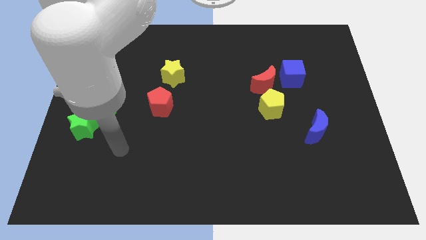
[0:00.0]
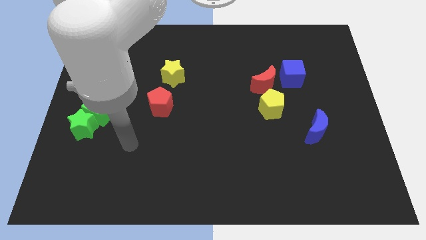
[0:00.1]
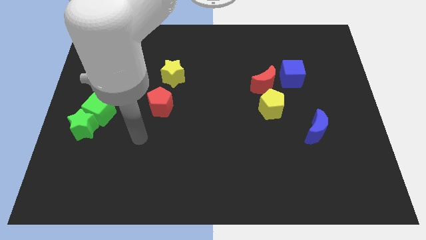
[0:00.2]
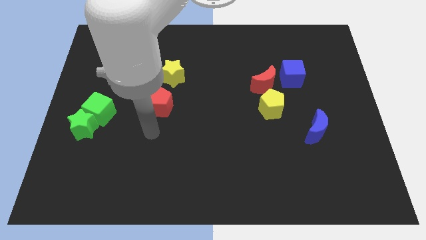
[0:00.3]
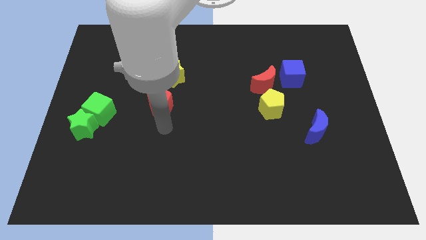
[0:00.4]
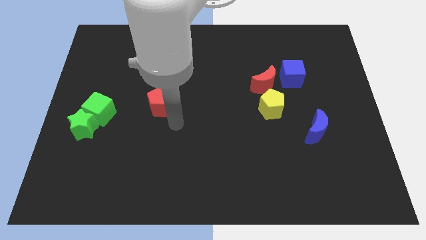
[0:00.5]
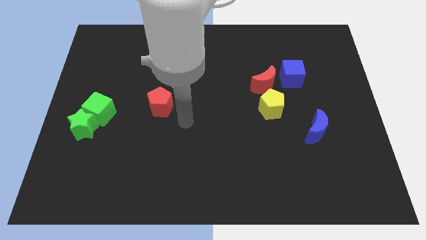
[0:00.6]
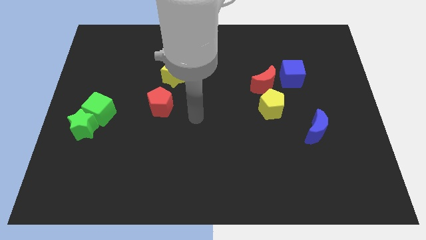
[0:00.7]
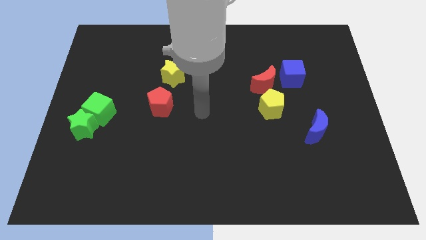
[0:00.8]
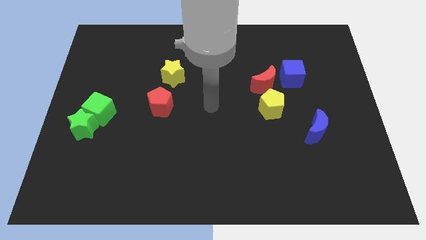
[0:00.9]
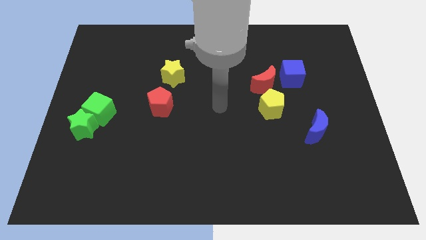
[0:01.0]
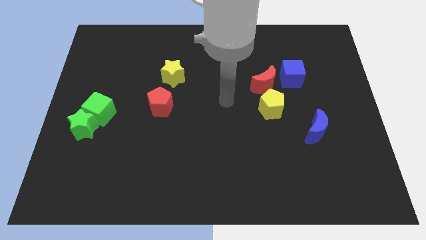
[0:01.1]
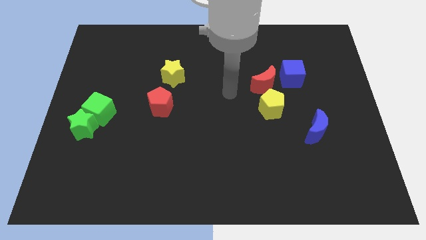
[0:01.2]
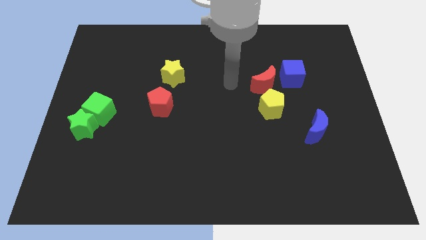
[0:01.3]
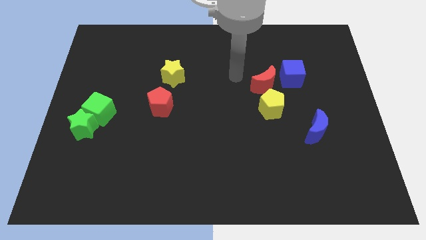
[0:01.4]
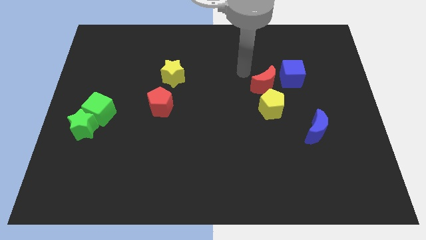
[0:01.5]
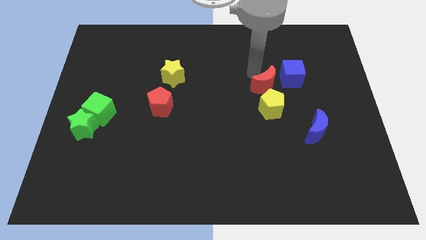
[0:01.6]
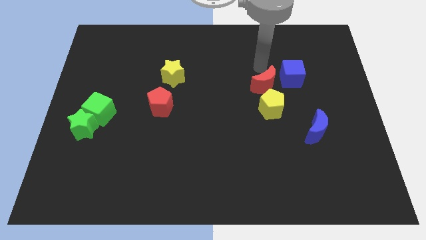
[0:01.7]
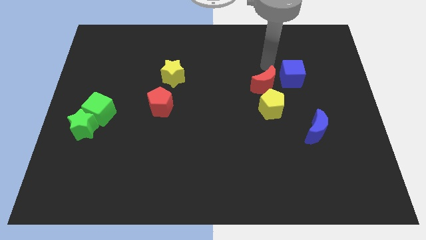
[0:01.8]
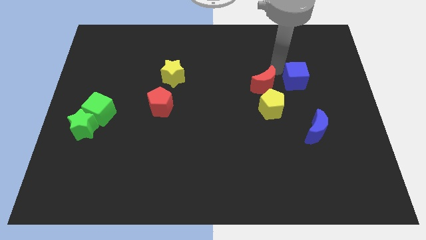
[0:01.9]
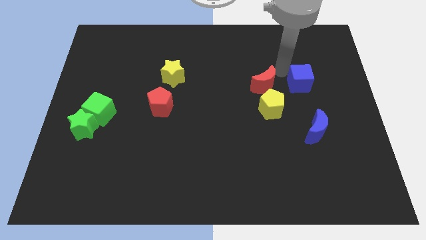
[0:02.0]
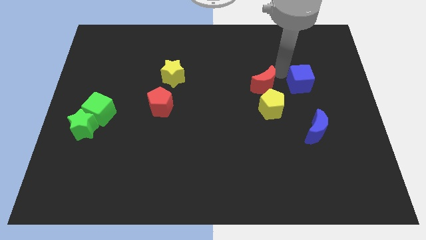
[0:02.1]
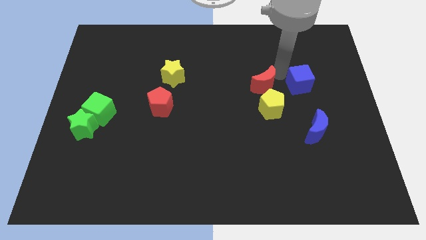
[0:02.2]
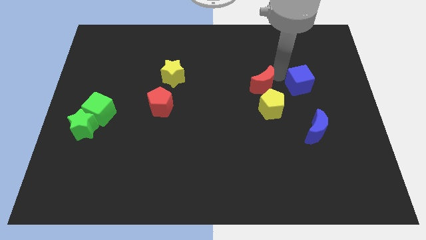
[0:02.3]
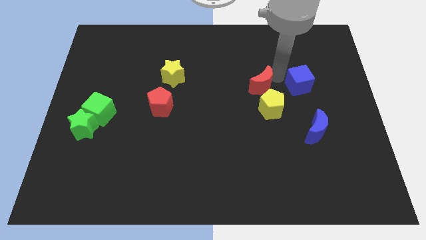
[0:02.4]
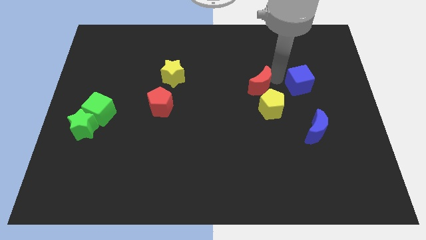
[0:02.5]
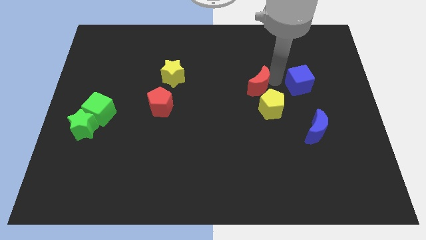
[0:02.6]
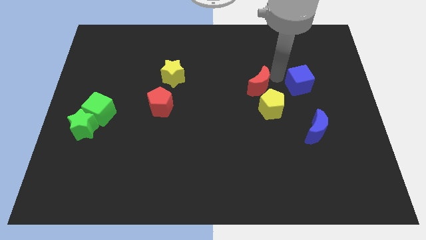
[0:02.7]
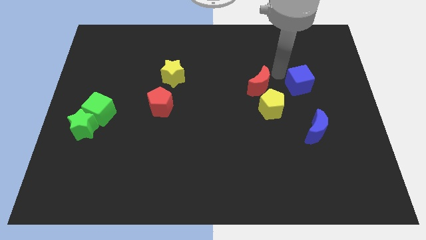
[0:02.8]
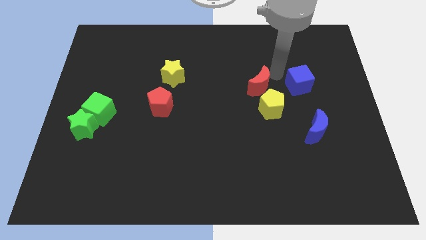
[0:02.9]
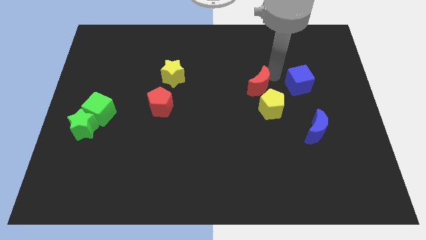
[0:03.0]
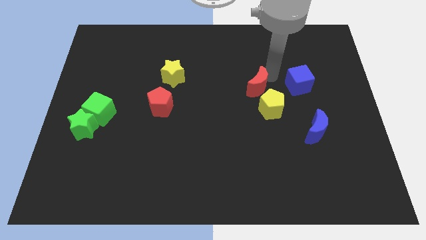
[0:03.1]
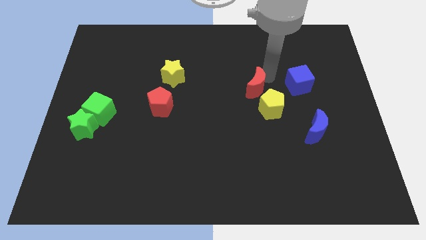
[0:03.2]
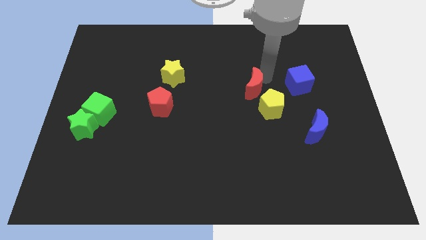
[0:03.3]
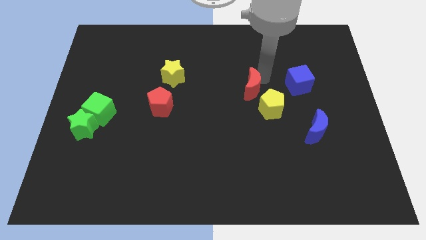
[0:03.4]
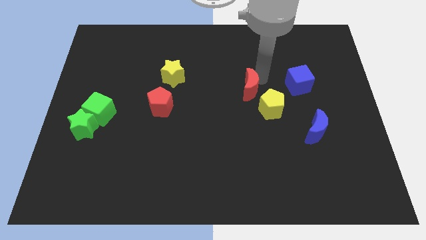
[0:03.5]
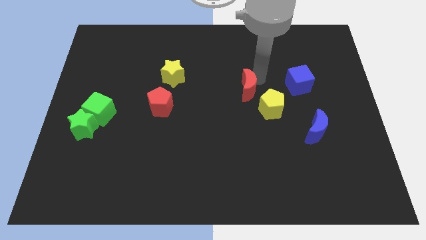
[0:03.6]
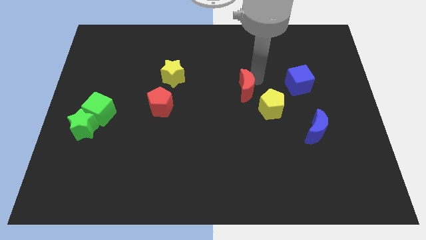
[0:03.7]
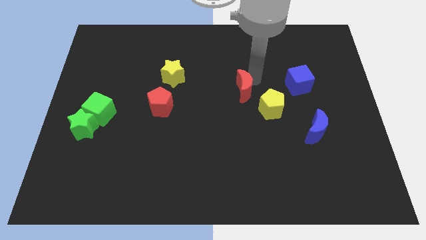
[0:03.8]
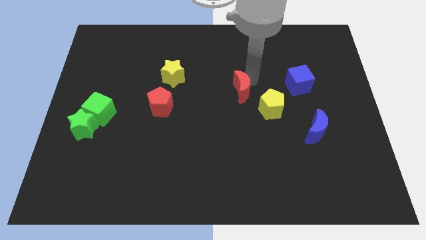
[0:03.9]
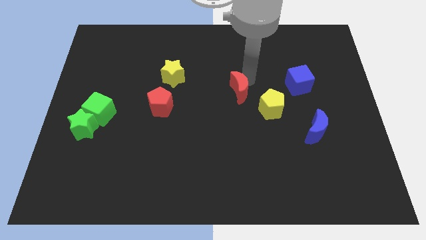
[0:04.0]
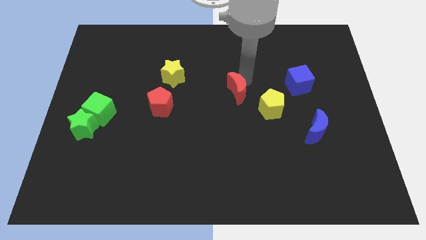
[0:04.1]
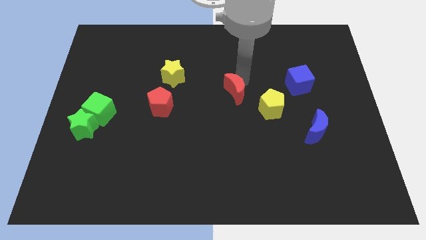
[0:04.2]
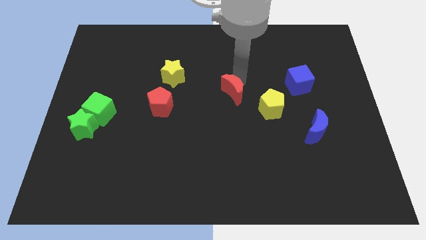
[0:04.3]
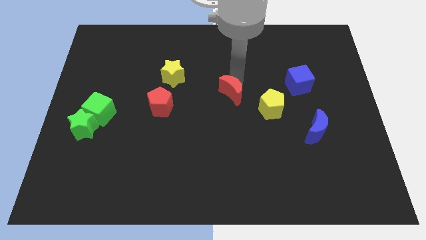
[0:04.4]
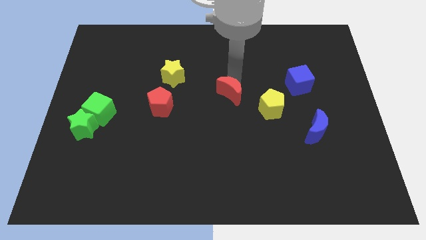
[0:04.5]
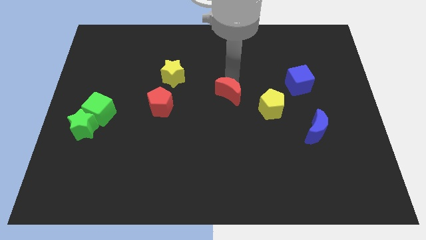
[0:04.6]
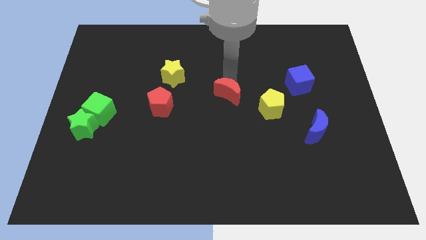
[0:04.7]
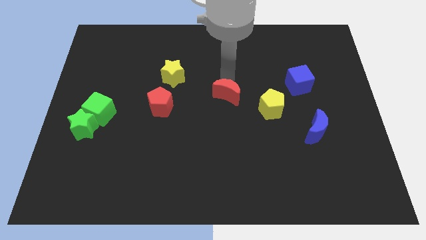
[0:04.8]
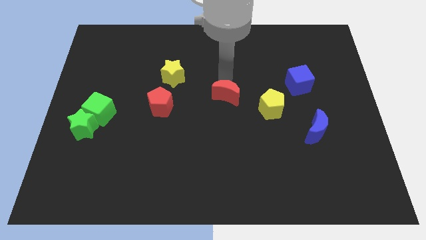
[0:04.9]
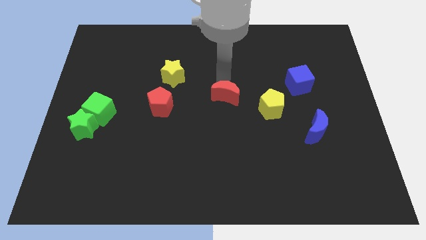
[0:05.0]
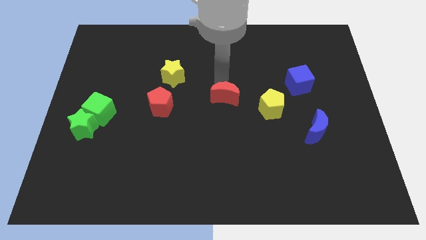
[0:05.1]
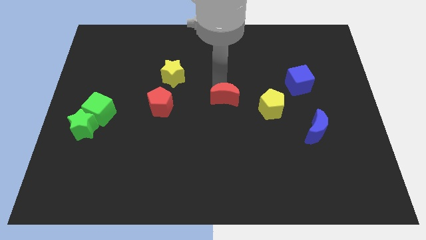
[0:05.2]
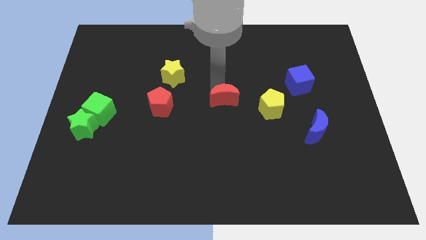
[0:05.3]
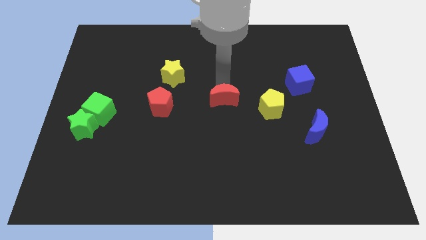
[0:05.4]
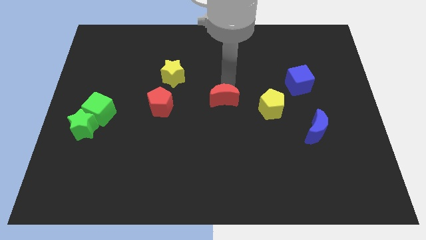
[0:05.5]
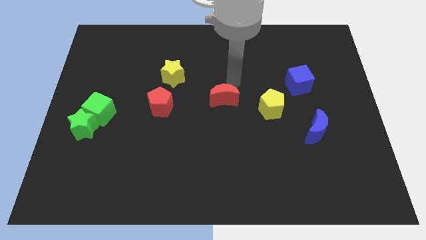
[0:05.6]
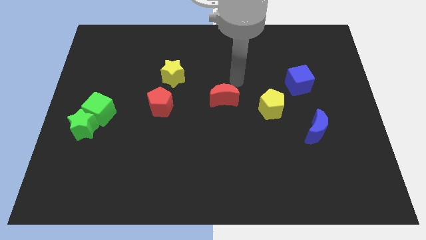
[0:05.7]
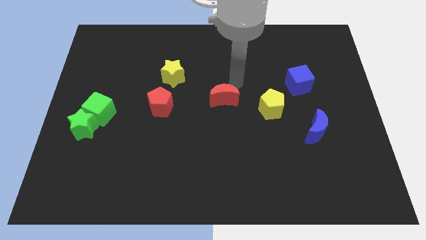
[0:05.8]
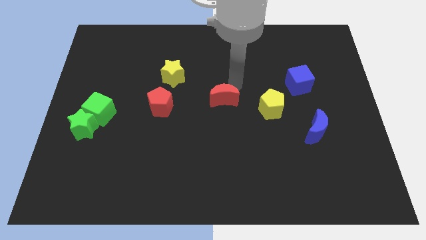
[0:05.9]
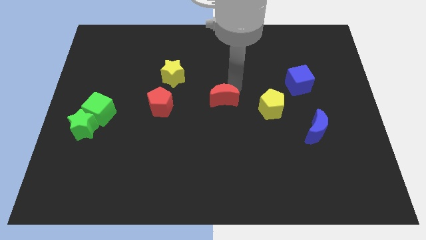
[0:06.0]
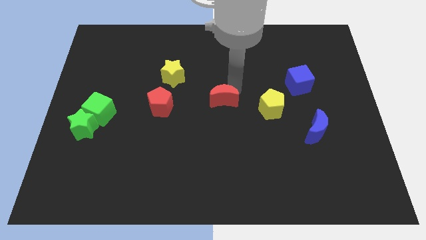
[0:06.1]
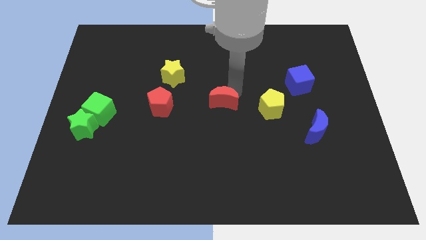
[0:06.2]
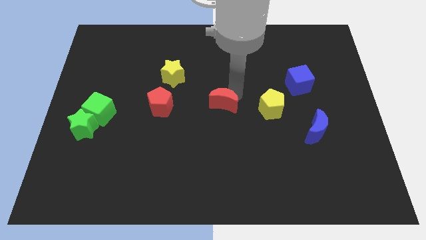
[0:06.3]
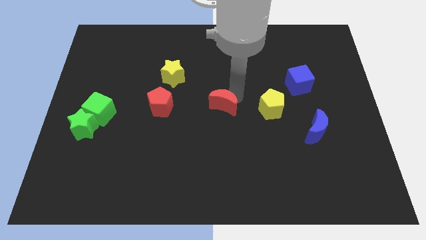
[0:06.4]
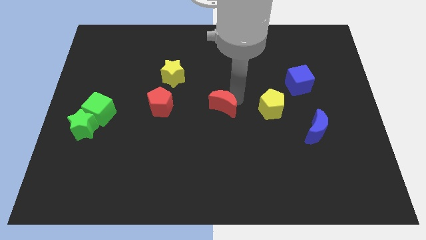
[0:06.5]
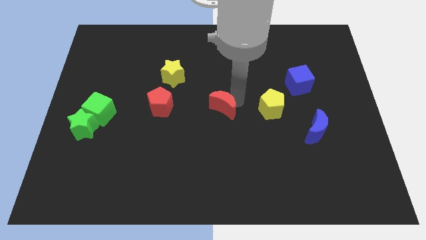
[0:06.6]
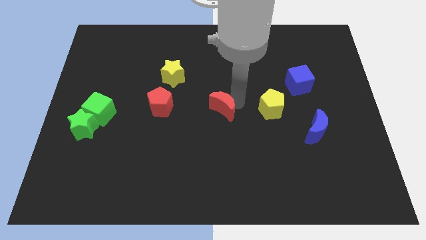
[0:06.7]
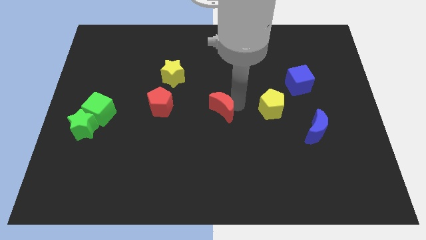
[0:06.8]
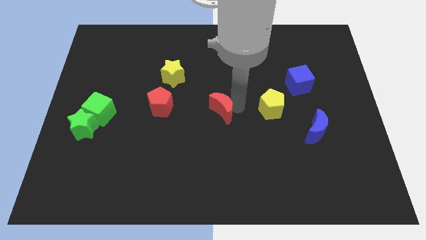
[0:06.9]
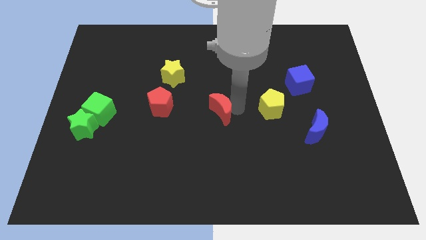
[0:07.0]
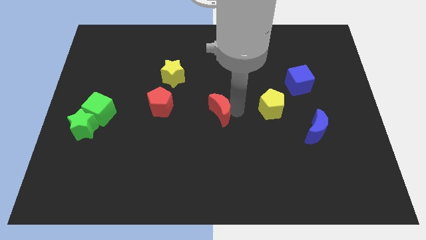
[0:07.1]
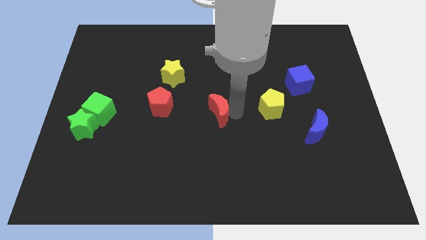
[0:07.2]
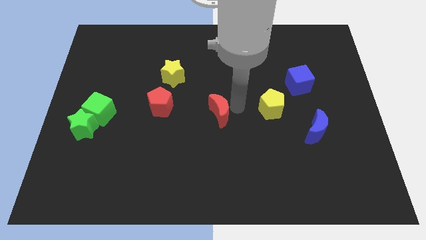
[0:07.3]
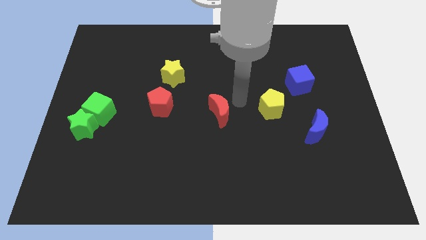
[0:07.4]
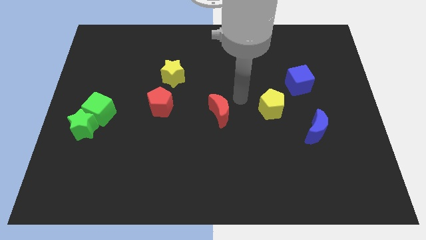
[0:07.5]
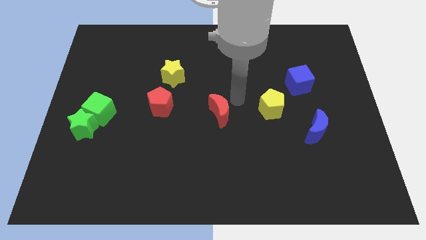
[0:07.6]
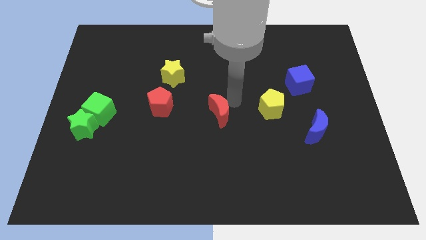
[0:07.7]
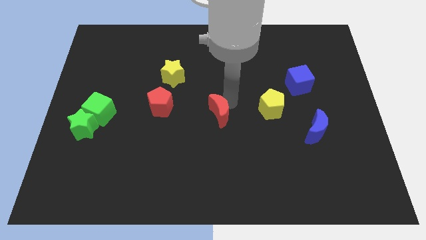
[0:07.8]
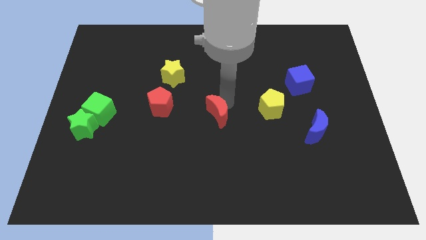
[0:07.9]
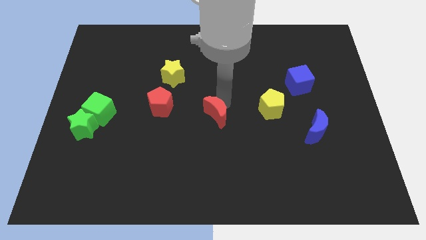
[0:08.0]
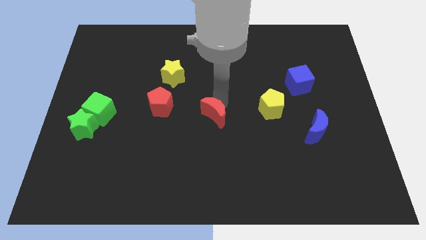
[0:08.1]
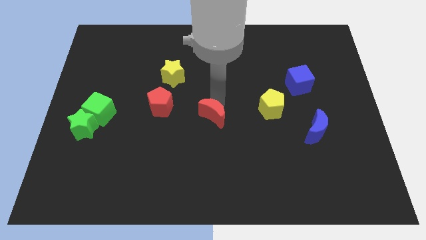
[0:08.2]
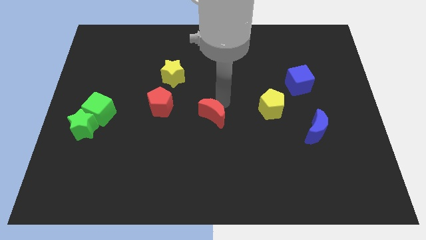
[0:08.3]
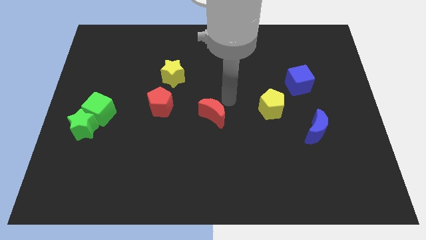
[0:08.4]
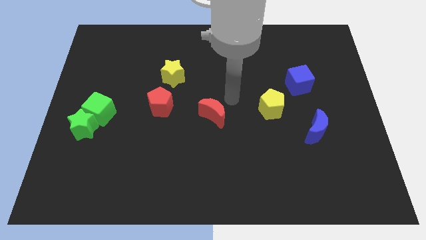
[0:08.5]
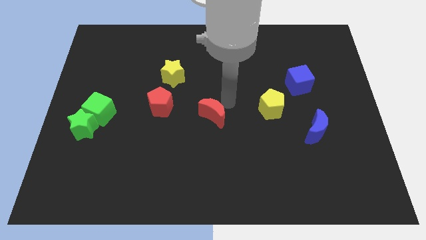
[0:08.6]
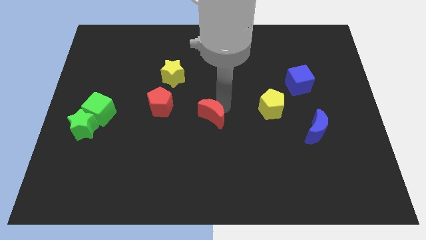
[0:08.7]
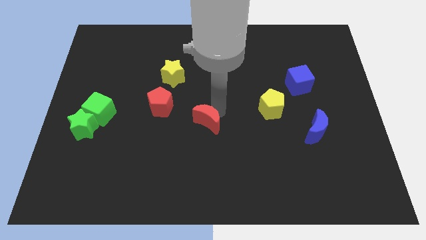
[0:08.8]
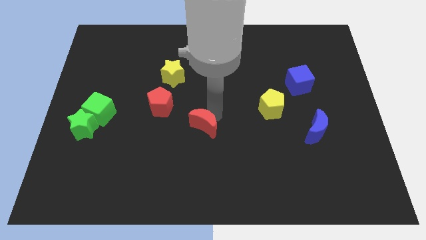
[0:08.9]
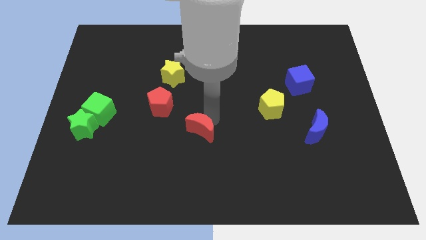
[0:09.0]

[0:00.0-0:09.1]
move the red moon downwards and then to the left
